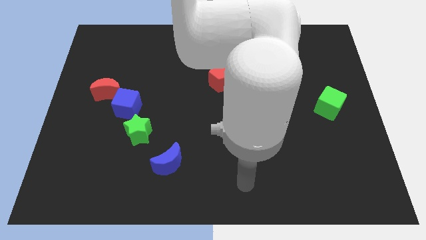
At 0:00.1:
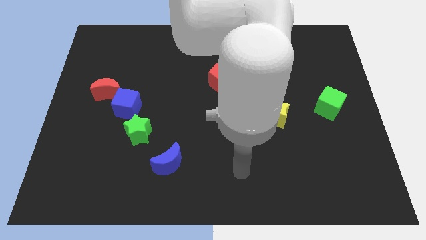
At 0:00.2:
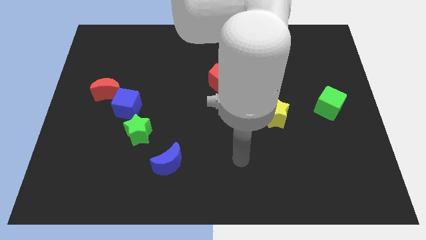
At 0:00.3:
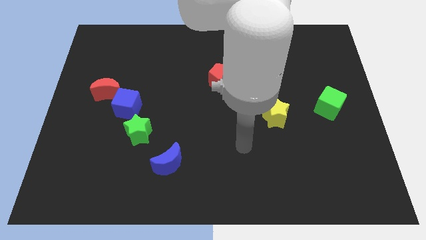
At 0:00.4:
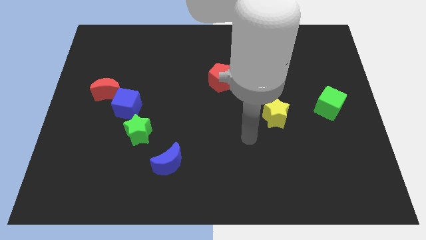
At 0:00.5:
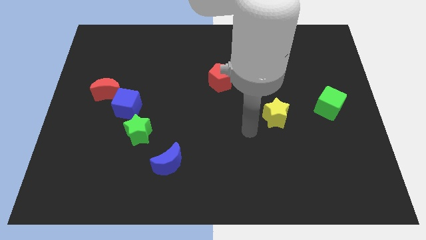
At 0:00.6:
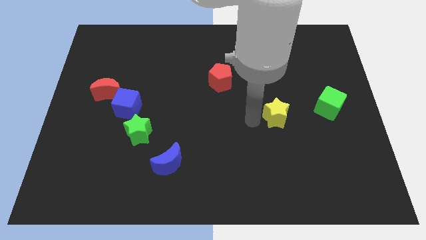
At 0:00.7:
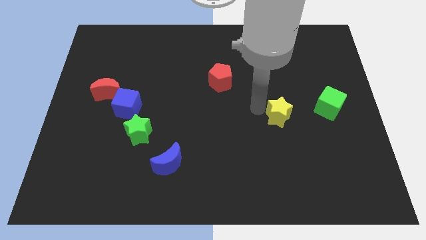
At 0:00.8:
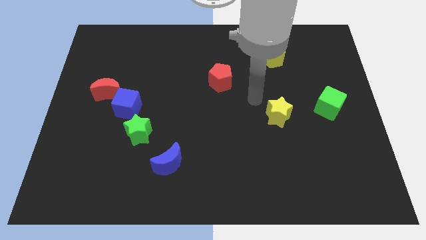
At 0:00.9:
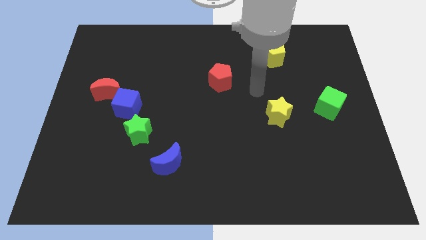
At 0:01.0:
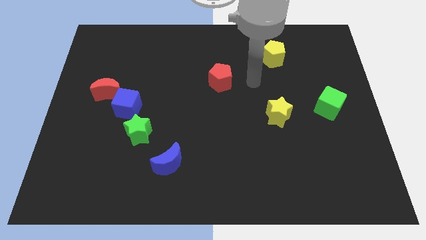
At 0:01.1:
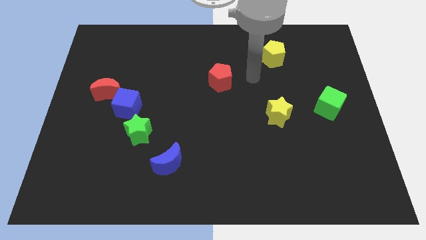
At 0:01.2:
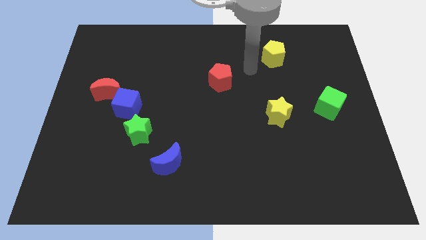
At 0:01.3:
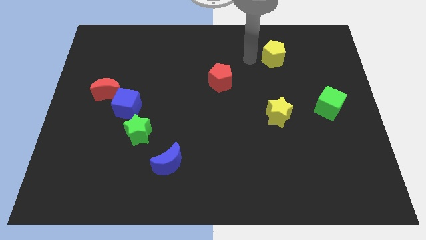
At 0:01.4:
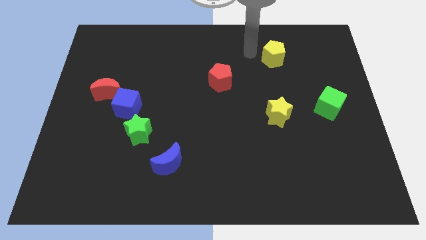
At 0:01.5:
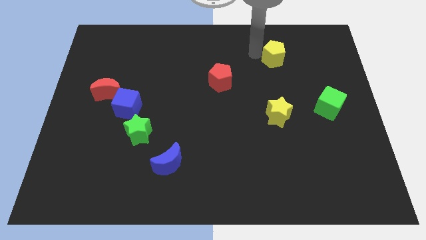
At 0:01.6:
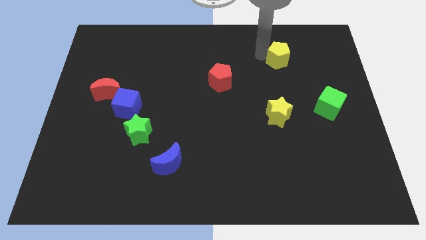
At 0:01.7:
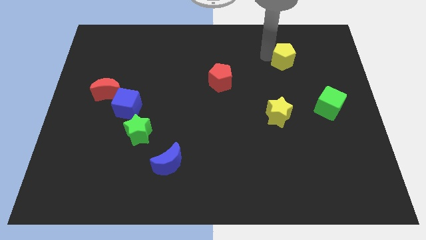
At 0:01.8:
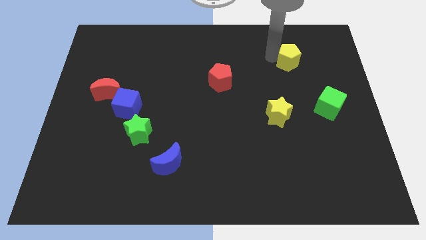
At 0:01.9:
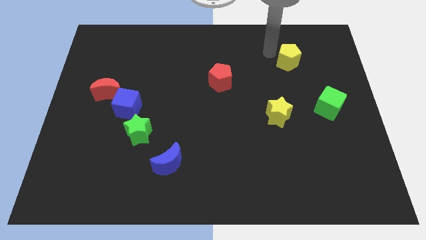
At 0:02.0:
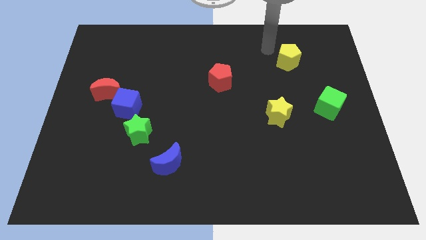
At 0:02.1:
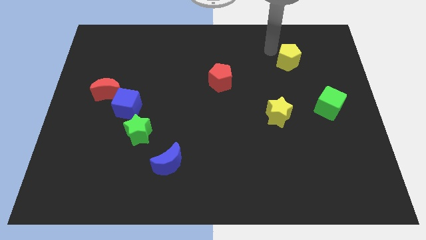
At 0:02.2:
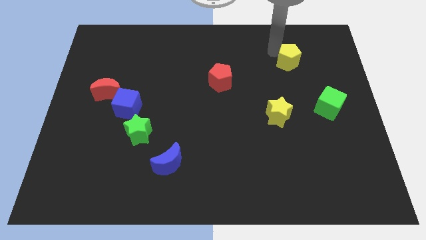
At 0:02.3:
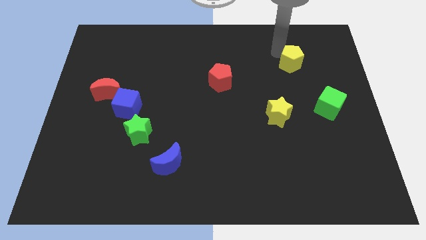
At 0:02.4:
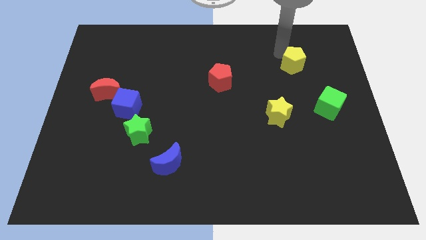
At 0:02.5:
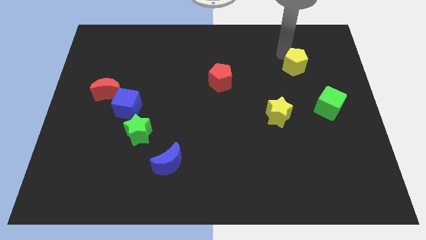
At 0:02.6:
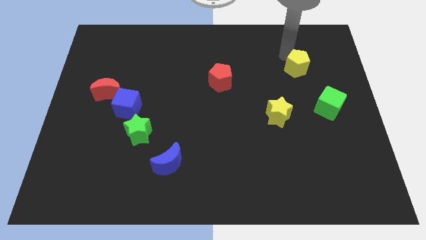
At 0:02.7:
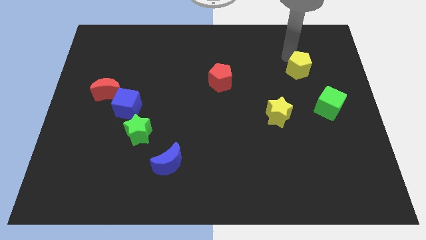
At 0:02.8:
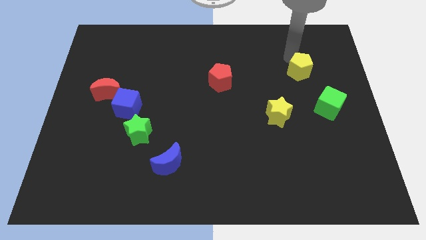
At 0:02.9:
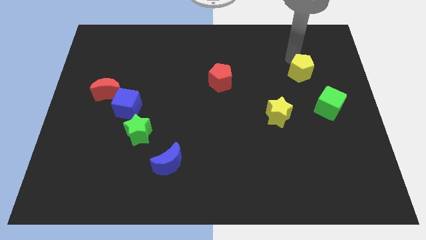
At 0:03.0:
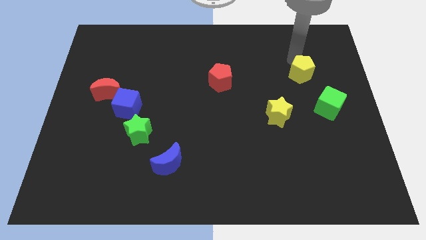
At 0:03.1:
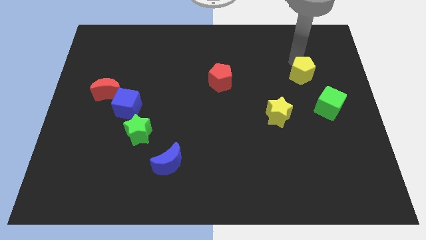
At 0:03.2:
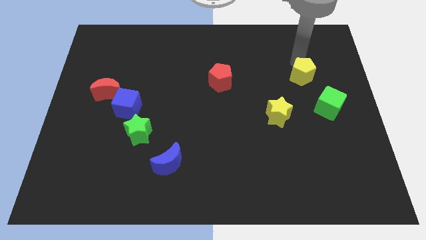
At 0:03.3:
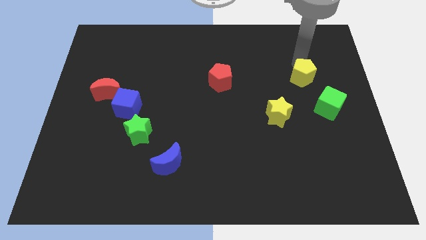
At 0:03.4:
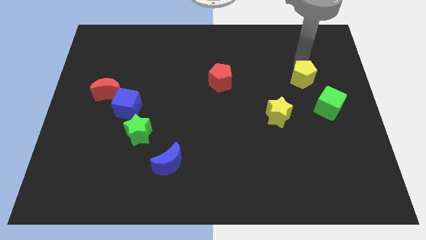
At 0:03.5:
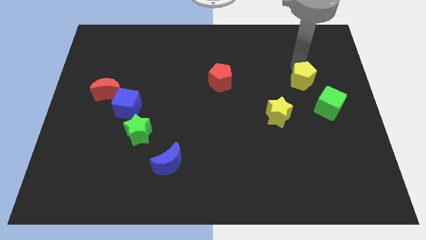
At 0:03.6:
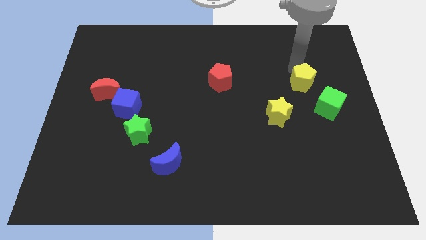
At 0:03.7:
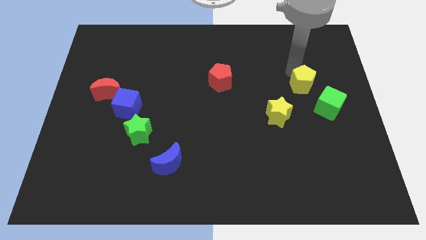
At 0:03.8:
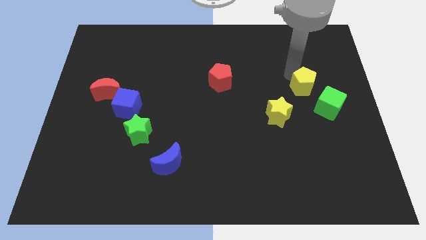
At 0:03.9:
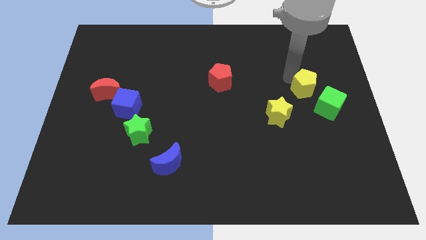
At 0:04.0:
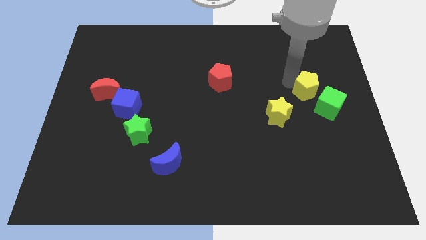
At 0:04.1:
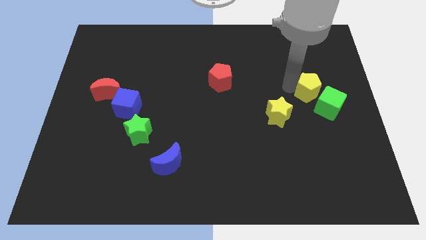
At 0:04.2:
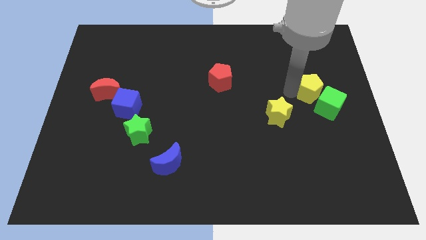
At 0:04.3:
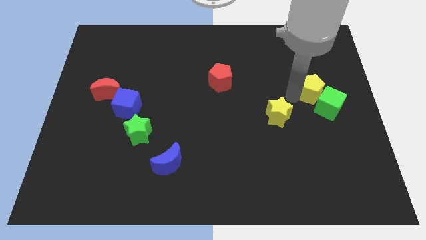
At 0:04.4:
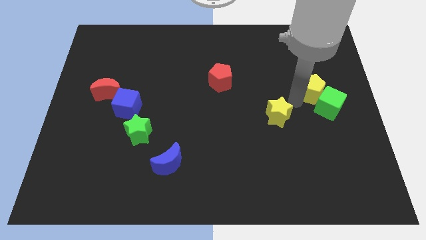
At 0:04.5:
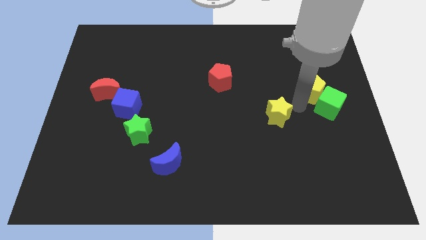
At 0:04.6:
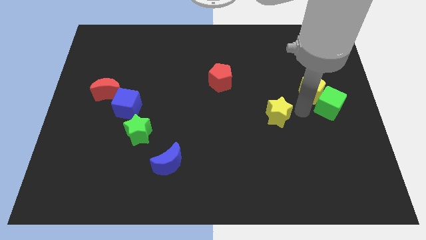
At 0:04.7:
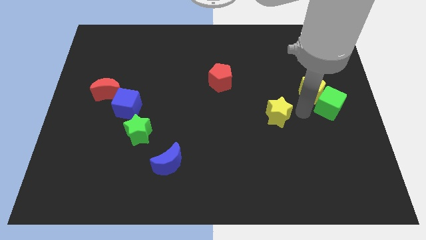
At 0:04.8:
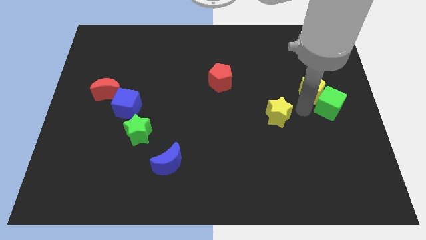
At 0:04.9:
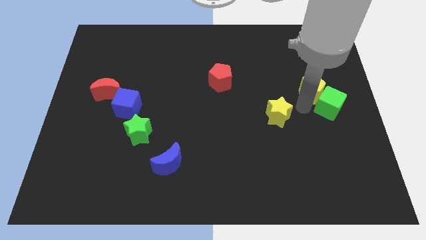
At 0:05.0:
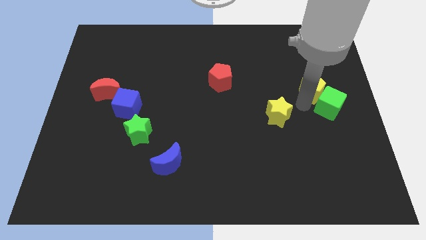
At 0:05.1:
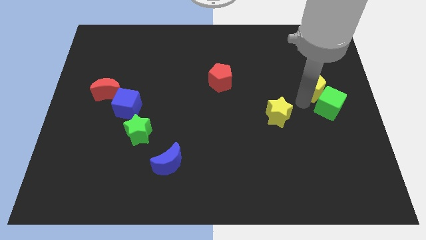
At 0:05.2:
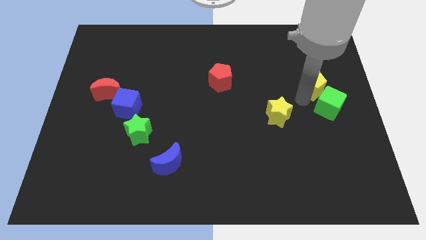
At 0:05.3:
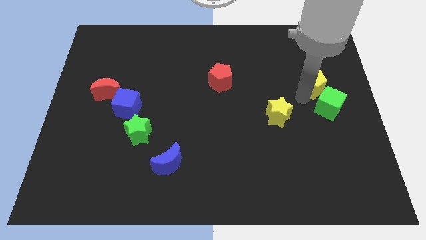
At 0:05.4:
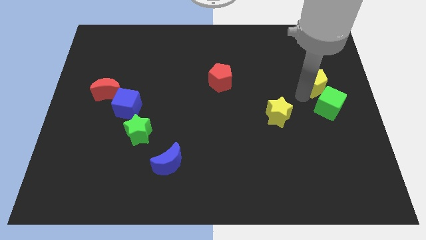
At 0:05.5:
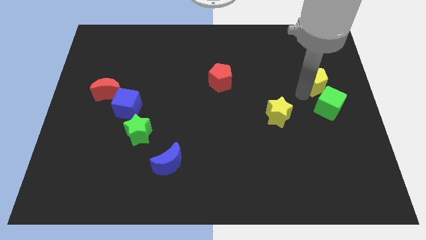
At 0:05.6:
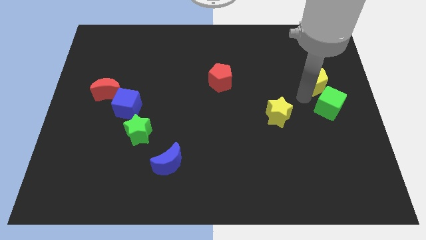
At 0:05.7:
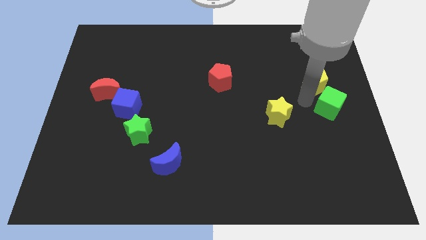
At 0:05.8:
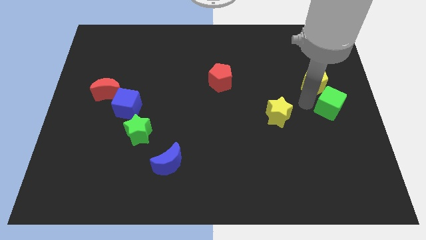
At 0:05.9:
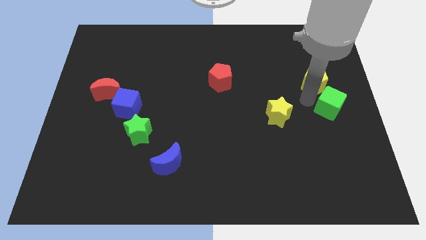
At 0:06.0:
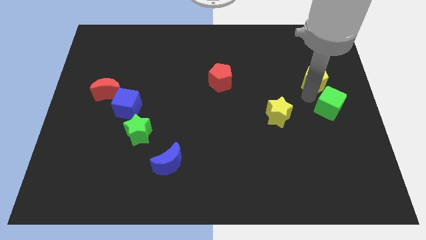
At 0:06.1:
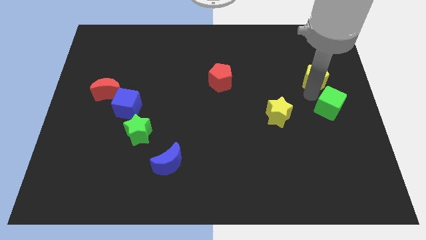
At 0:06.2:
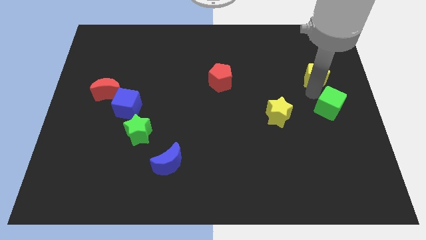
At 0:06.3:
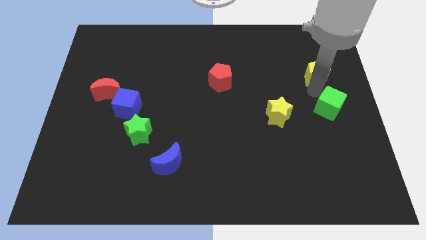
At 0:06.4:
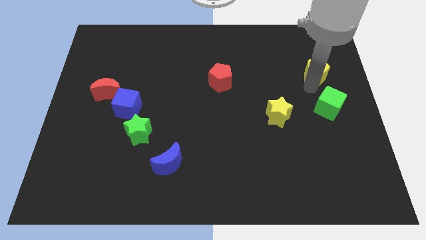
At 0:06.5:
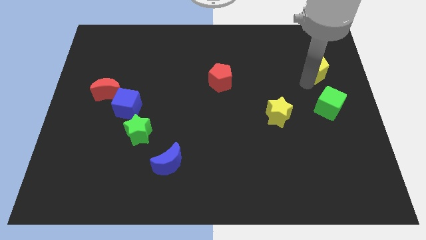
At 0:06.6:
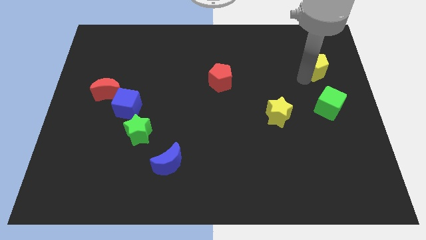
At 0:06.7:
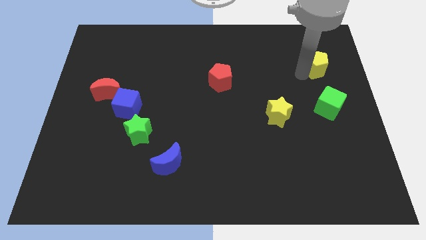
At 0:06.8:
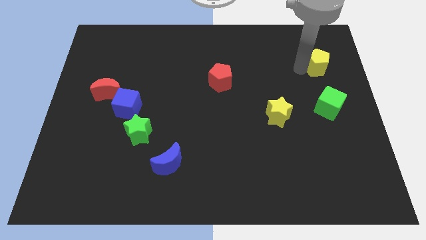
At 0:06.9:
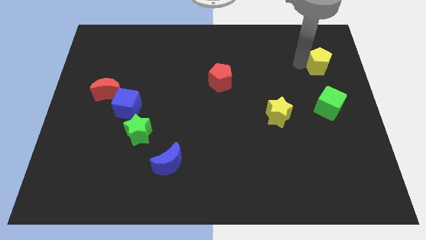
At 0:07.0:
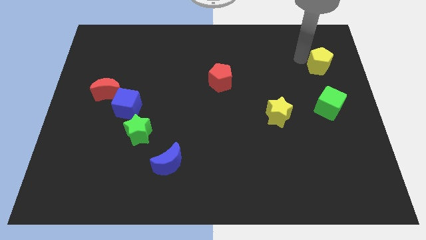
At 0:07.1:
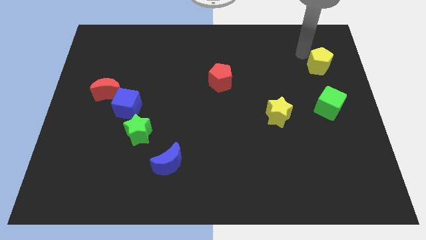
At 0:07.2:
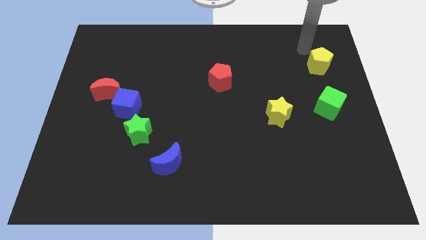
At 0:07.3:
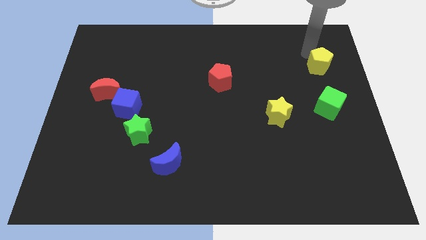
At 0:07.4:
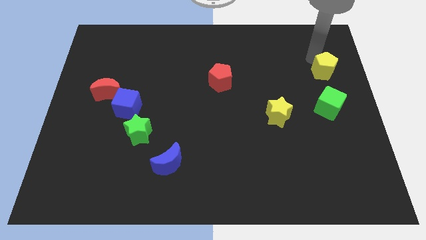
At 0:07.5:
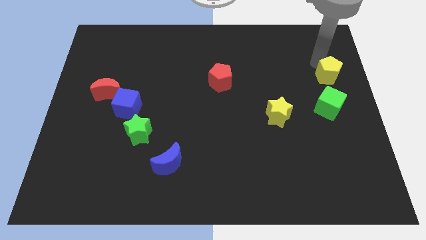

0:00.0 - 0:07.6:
put the yellow pentagon to the right side of the board

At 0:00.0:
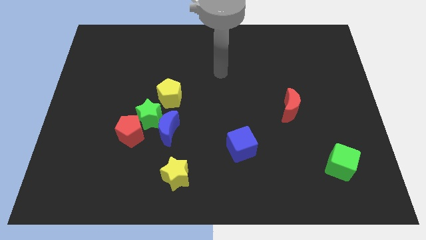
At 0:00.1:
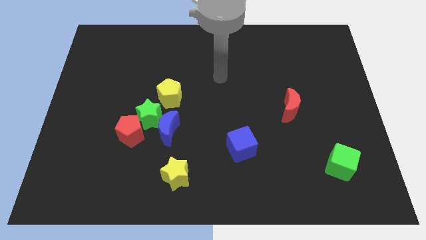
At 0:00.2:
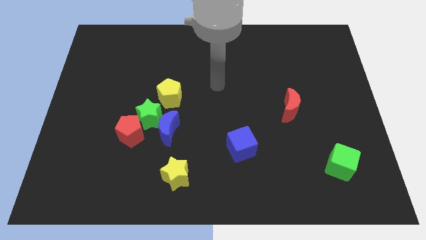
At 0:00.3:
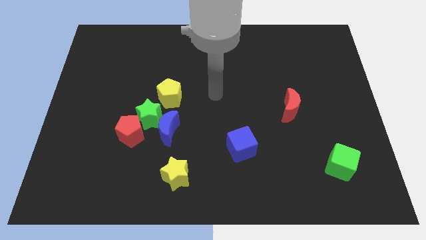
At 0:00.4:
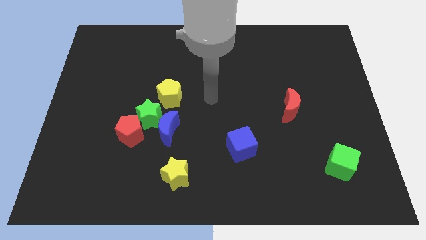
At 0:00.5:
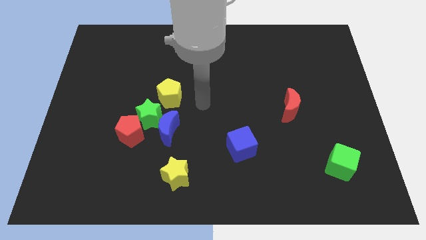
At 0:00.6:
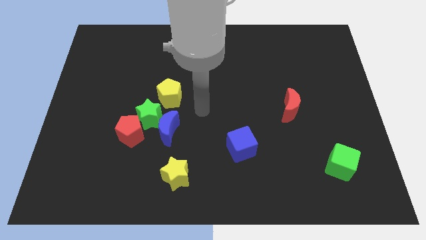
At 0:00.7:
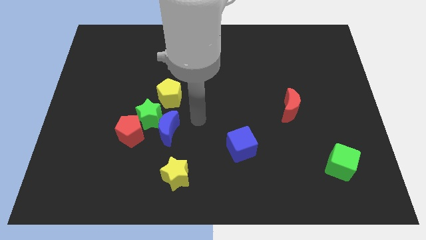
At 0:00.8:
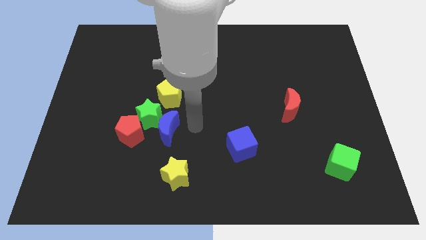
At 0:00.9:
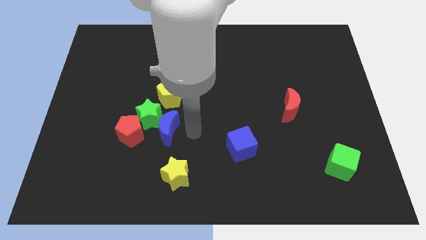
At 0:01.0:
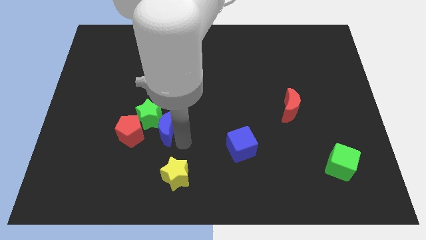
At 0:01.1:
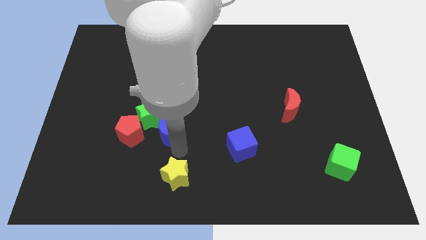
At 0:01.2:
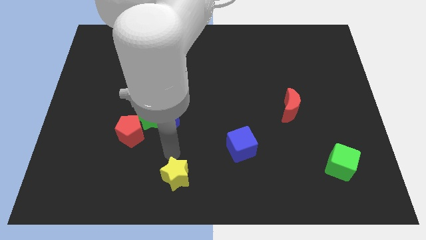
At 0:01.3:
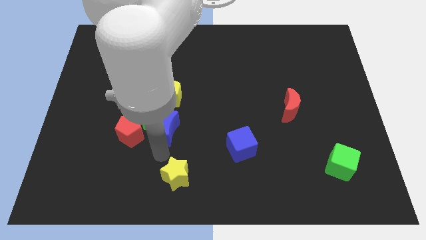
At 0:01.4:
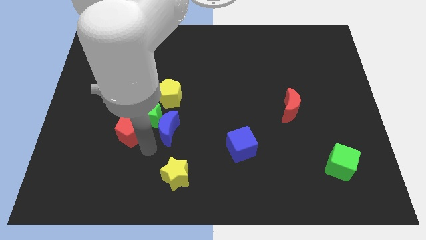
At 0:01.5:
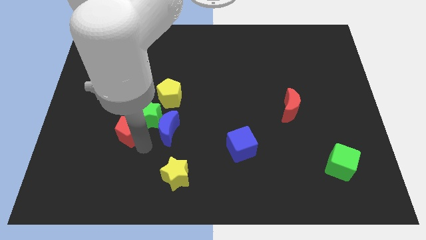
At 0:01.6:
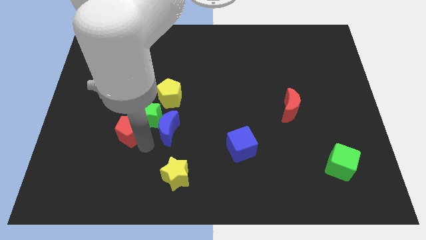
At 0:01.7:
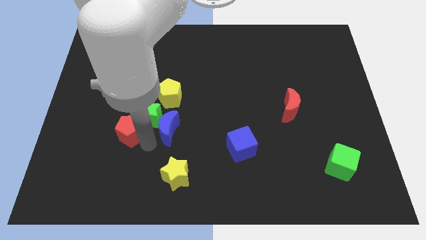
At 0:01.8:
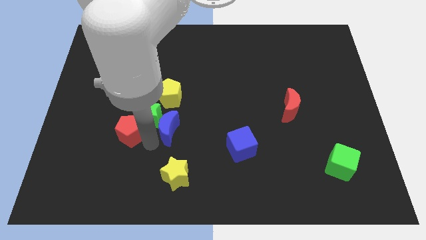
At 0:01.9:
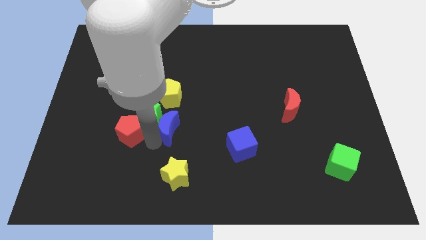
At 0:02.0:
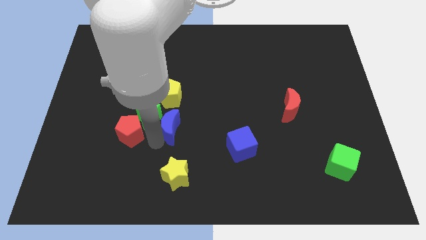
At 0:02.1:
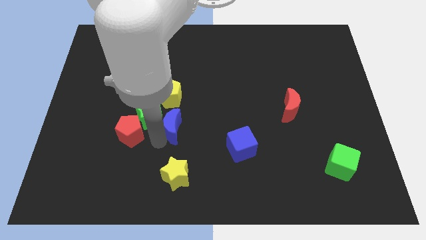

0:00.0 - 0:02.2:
push the blue moon to the middle
